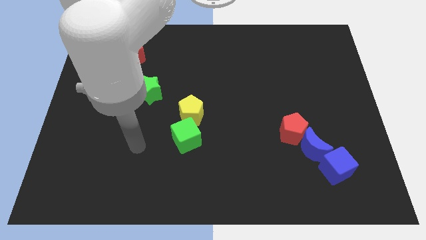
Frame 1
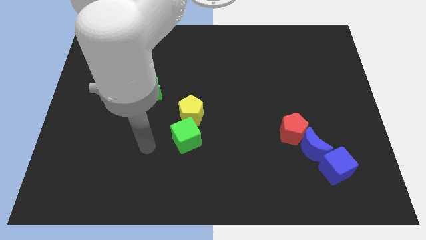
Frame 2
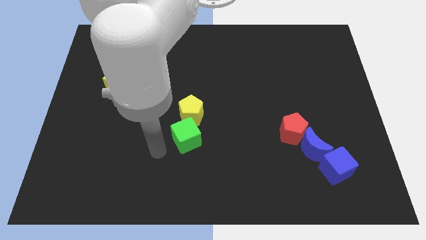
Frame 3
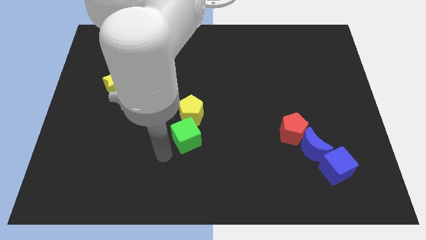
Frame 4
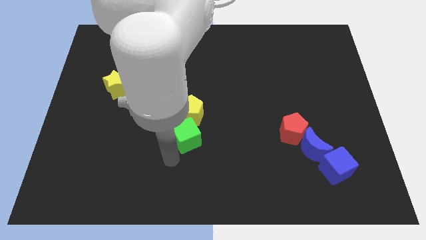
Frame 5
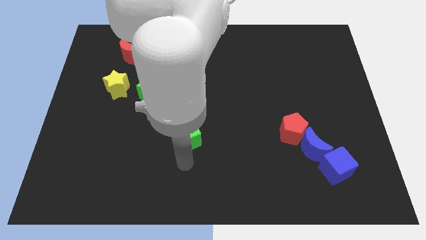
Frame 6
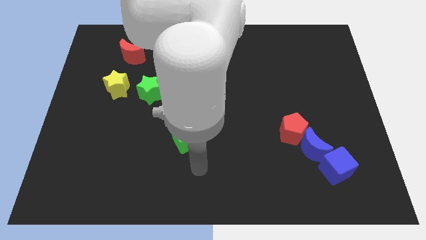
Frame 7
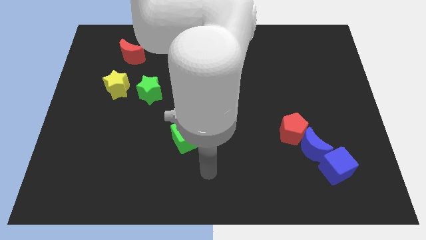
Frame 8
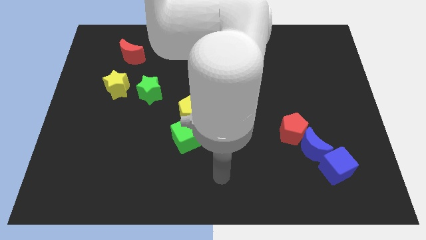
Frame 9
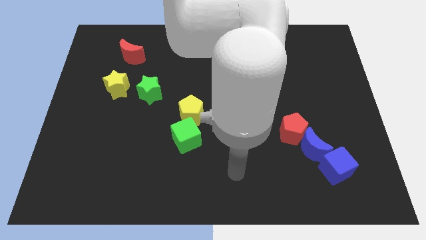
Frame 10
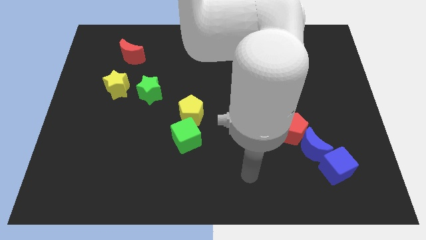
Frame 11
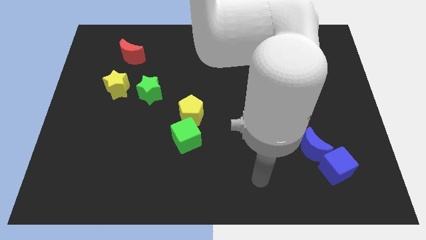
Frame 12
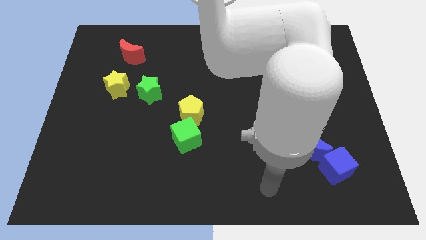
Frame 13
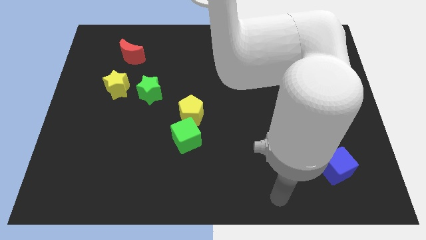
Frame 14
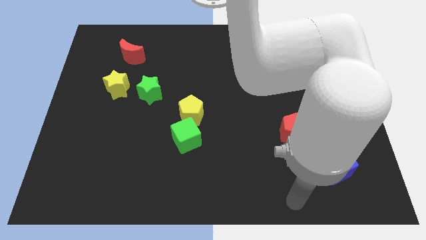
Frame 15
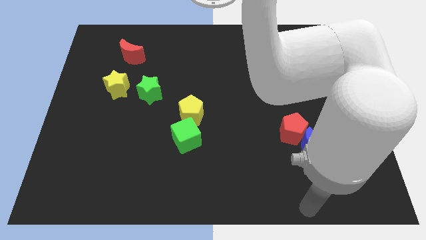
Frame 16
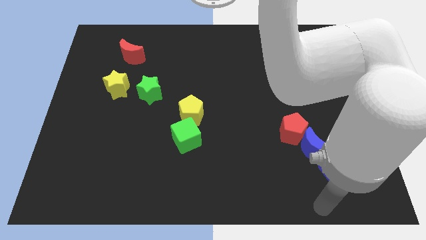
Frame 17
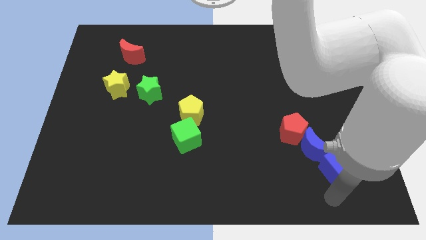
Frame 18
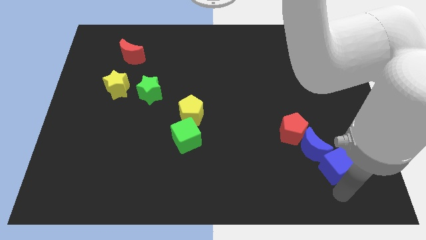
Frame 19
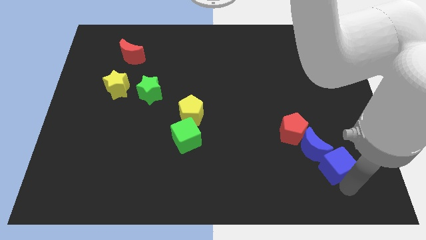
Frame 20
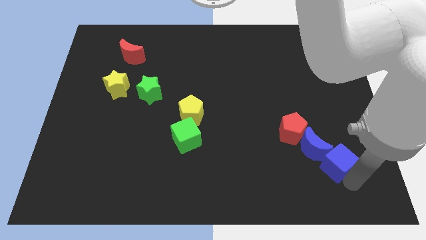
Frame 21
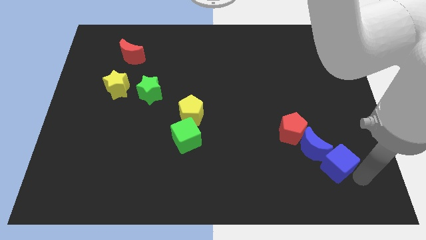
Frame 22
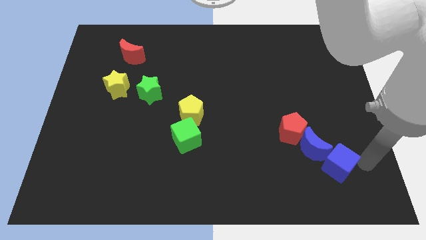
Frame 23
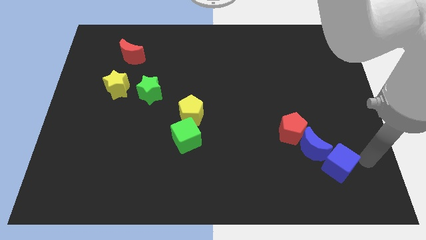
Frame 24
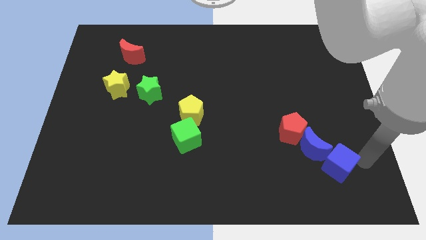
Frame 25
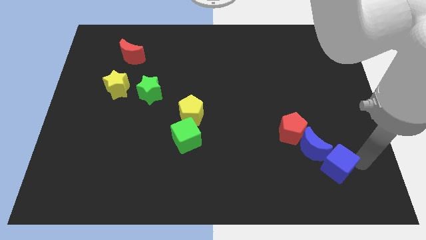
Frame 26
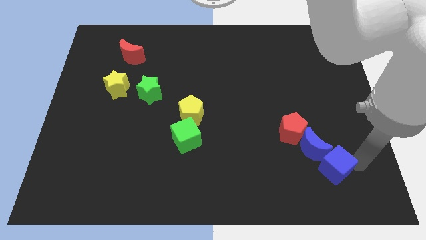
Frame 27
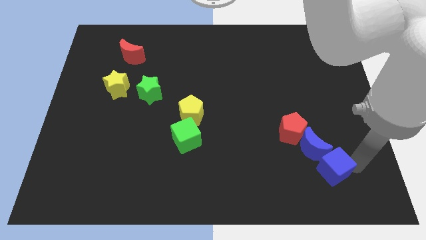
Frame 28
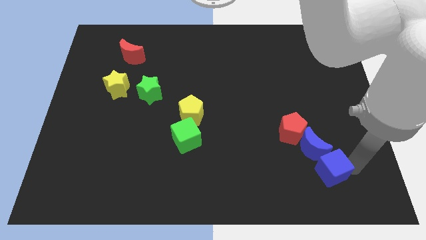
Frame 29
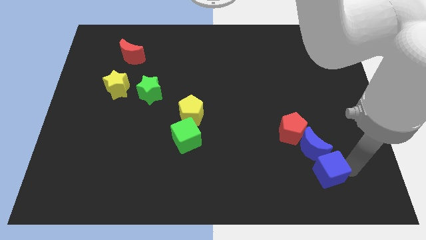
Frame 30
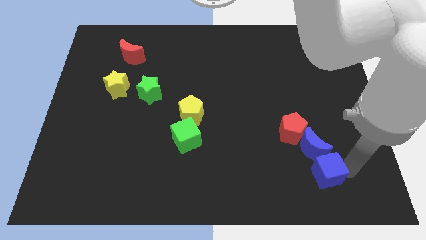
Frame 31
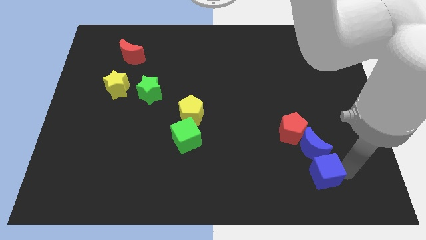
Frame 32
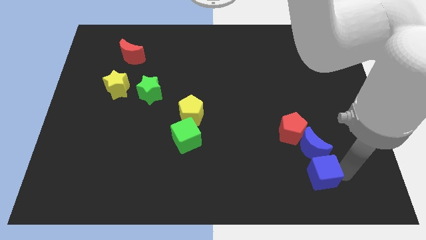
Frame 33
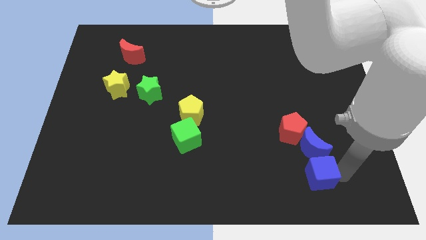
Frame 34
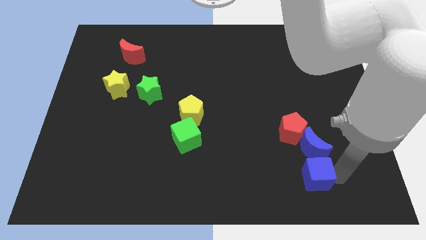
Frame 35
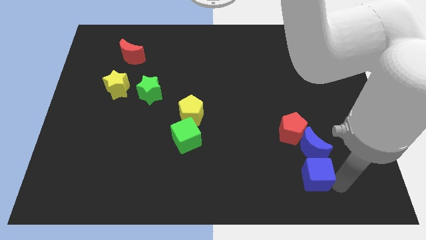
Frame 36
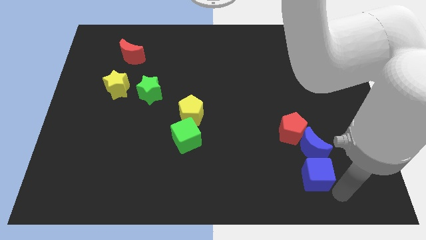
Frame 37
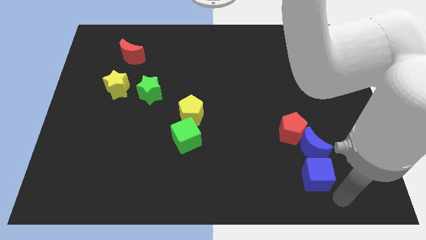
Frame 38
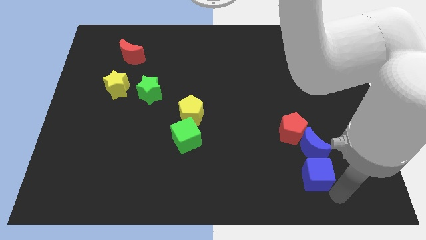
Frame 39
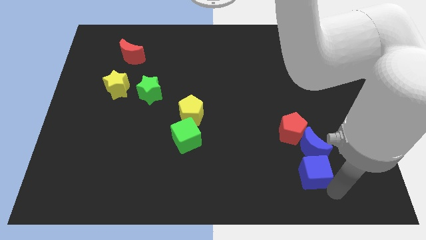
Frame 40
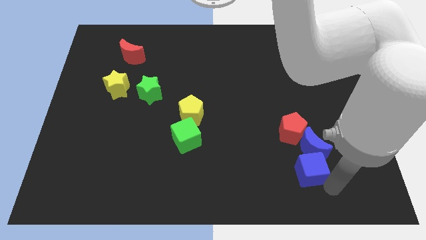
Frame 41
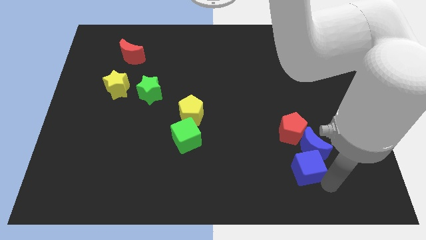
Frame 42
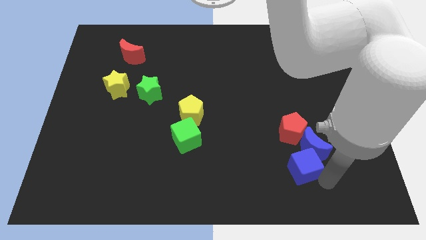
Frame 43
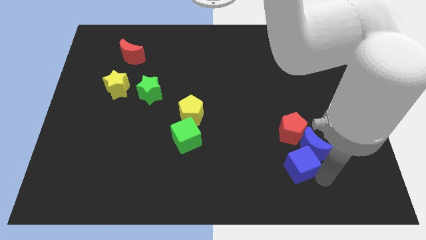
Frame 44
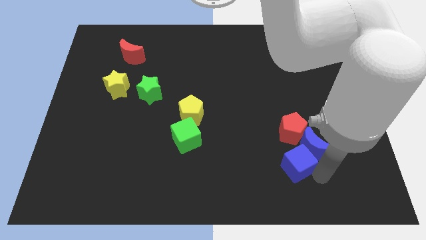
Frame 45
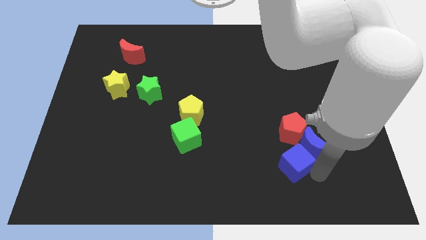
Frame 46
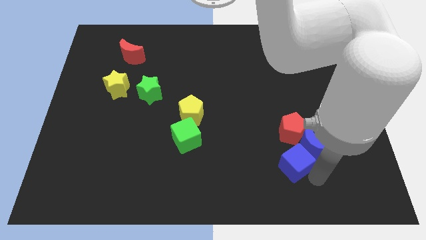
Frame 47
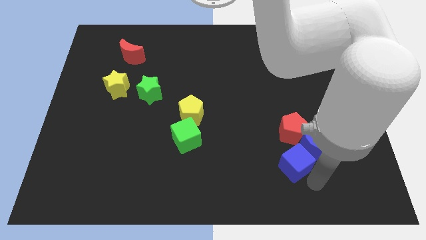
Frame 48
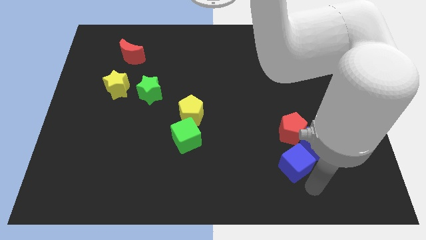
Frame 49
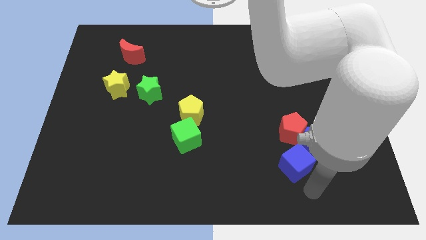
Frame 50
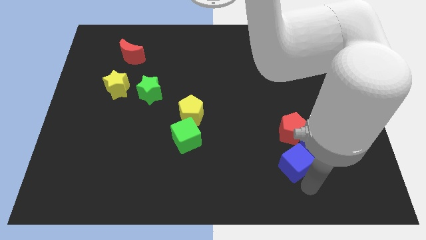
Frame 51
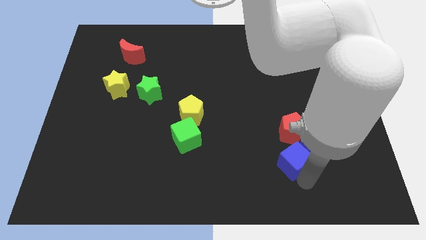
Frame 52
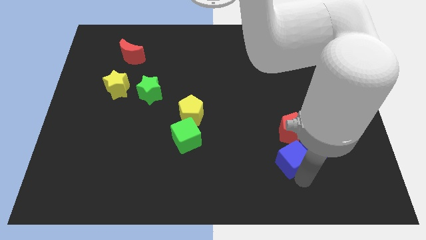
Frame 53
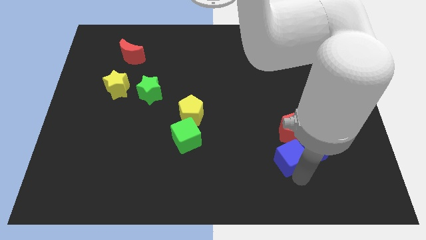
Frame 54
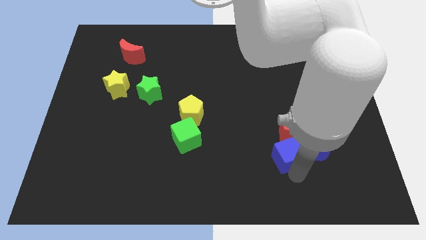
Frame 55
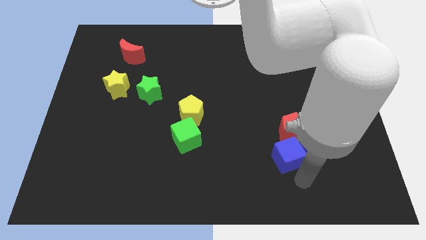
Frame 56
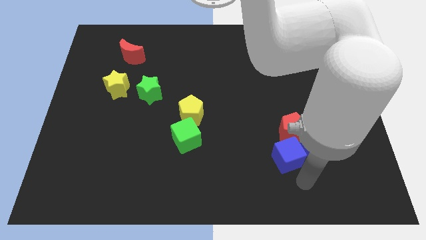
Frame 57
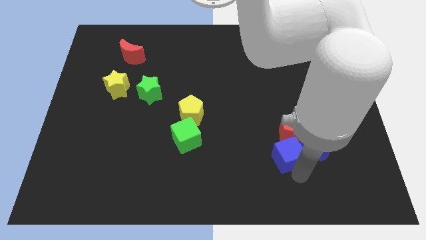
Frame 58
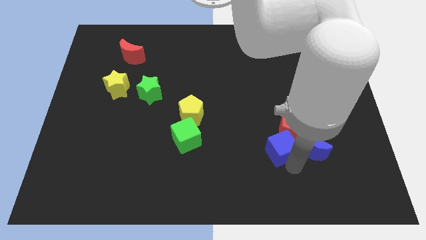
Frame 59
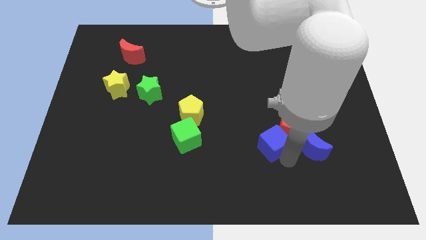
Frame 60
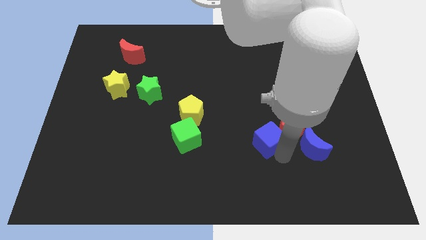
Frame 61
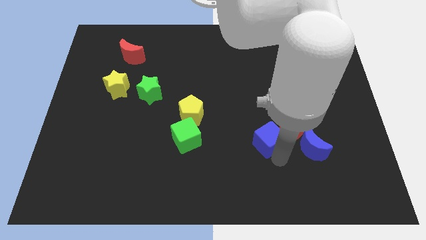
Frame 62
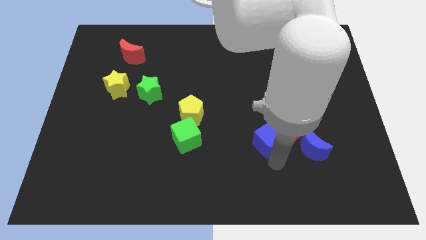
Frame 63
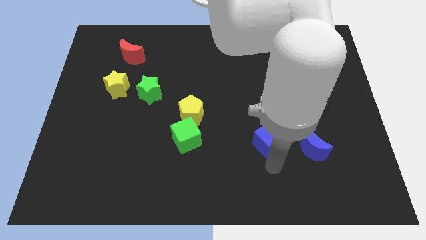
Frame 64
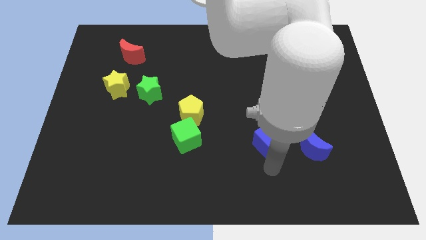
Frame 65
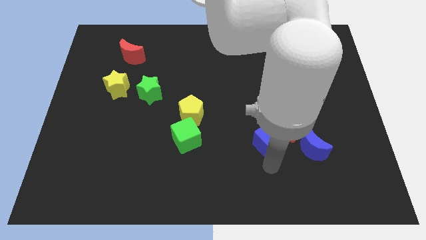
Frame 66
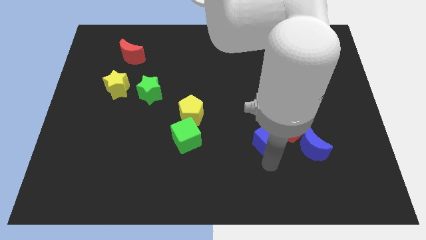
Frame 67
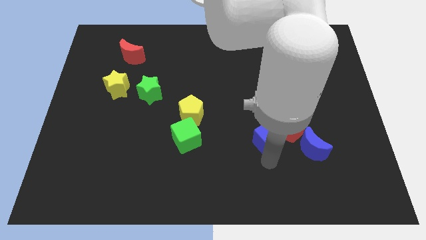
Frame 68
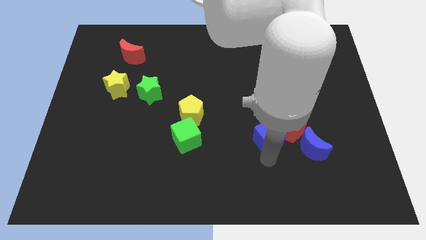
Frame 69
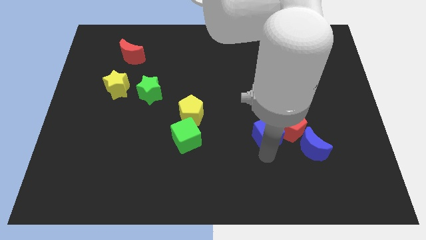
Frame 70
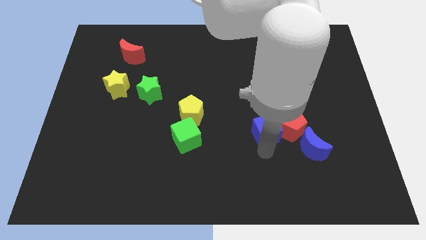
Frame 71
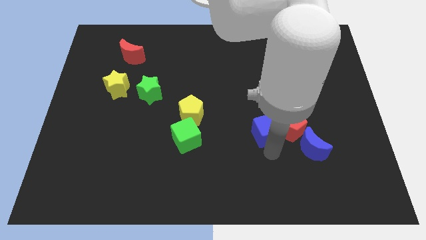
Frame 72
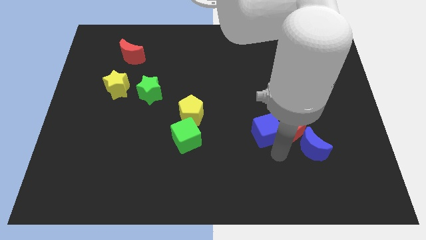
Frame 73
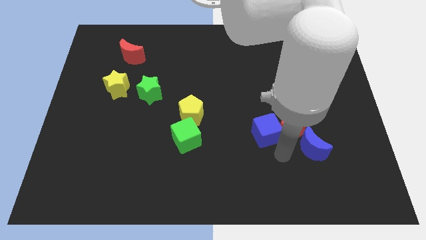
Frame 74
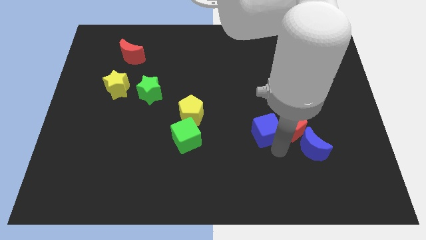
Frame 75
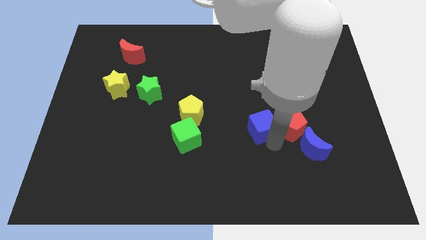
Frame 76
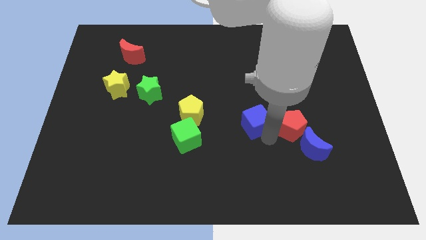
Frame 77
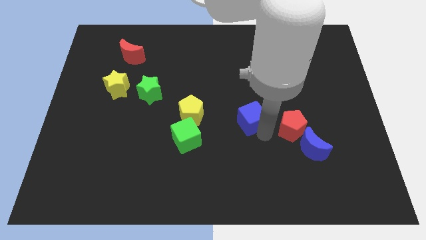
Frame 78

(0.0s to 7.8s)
move the blue cube up and left
